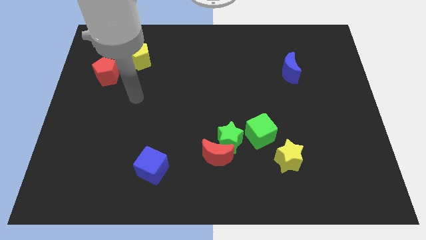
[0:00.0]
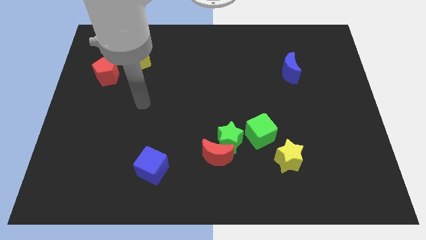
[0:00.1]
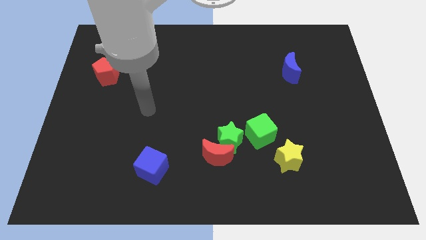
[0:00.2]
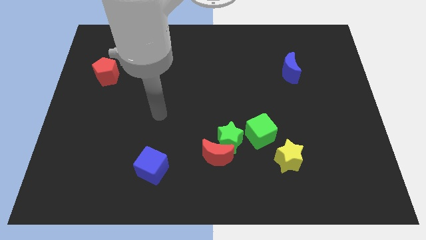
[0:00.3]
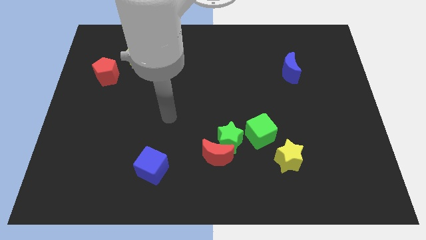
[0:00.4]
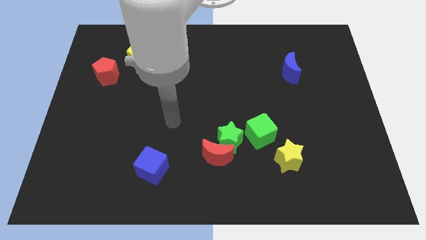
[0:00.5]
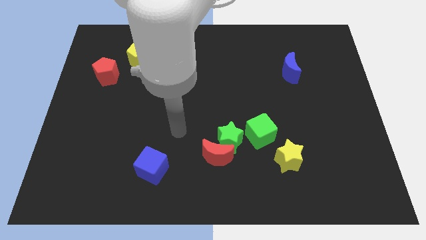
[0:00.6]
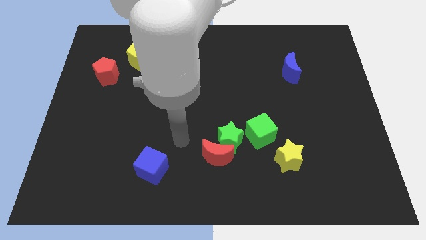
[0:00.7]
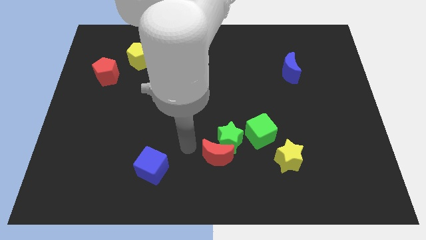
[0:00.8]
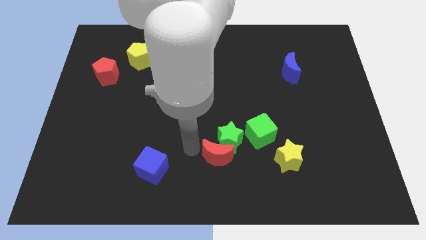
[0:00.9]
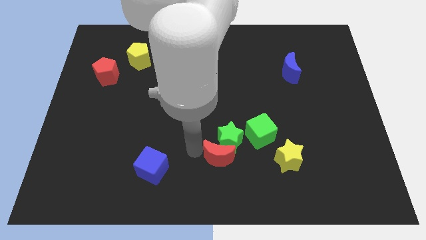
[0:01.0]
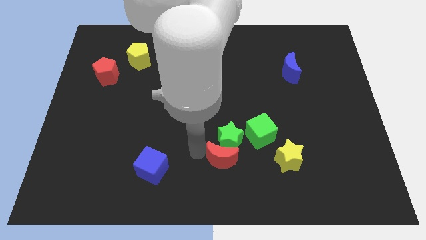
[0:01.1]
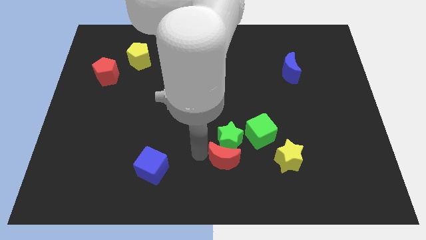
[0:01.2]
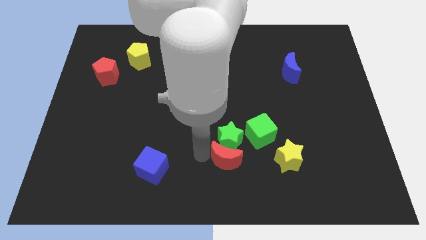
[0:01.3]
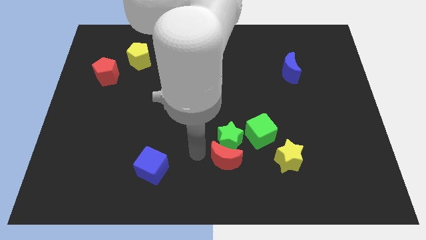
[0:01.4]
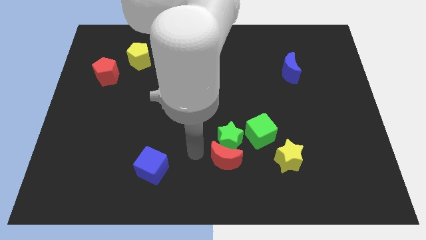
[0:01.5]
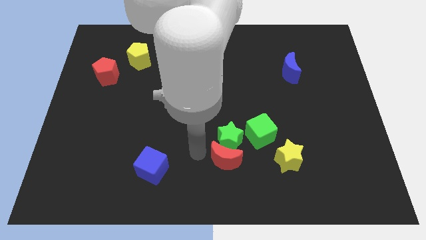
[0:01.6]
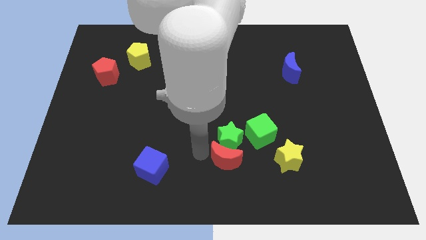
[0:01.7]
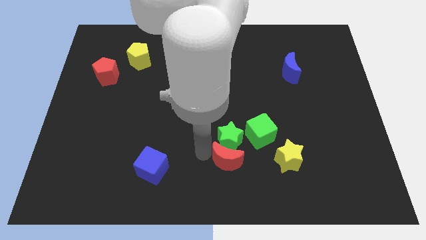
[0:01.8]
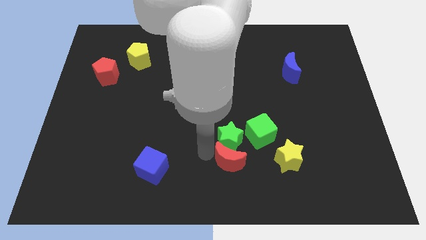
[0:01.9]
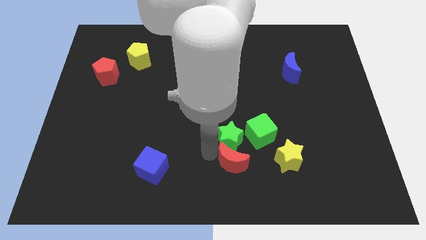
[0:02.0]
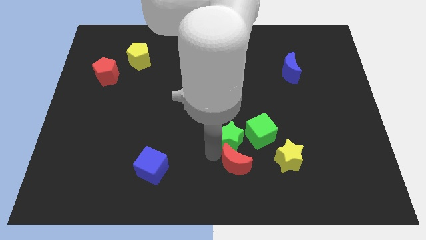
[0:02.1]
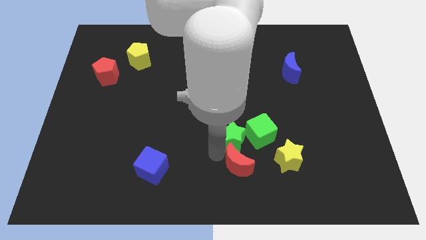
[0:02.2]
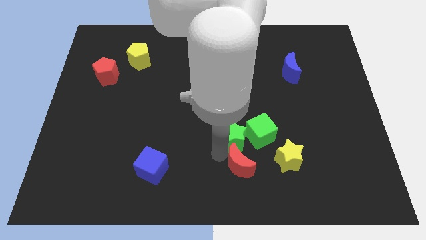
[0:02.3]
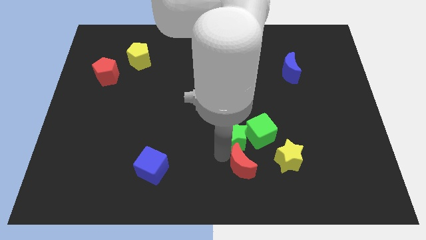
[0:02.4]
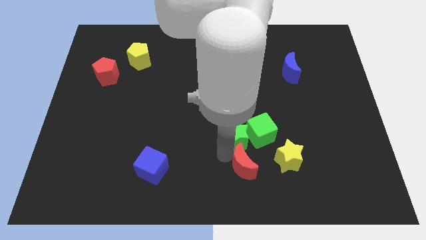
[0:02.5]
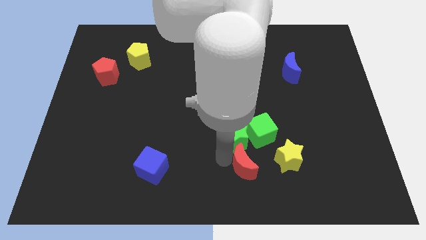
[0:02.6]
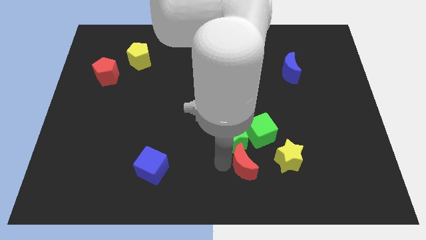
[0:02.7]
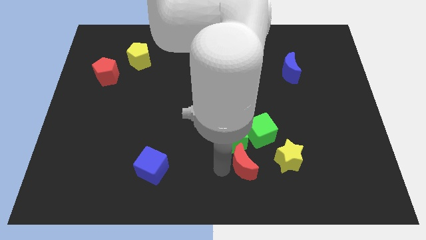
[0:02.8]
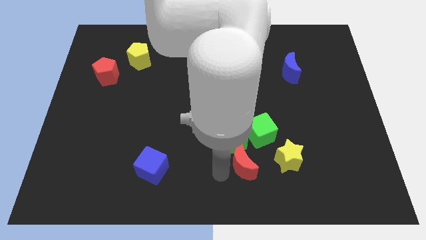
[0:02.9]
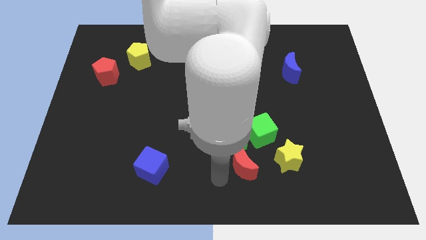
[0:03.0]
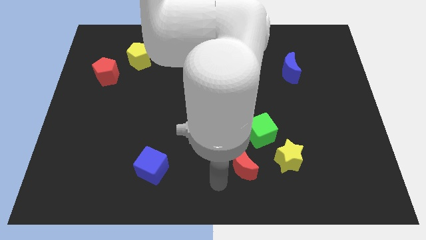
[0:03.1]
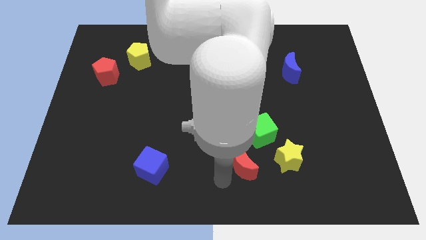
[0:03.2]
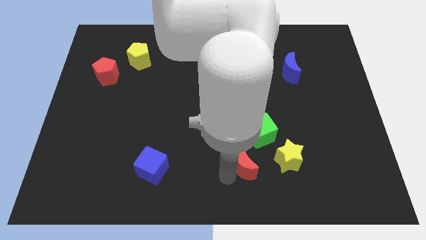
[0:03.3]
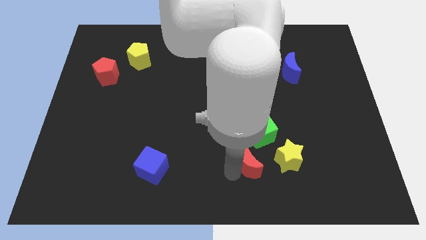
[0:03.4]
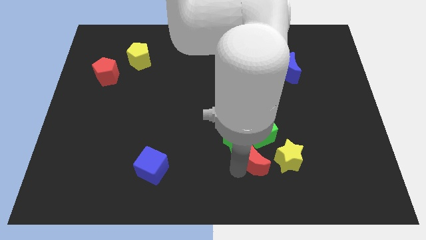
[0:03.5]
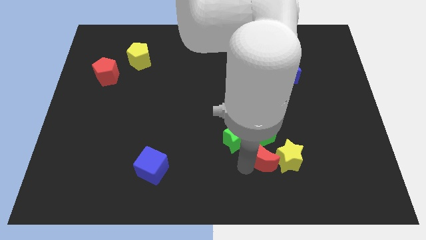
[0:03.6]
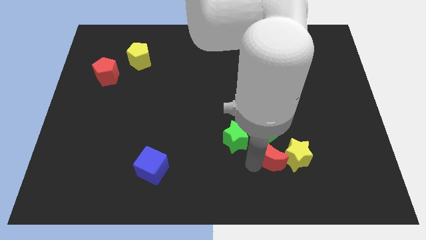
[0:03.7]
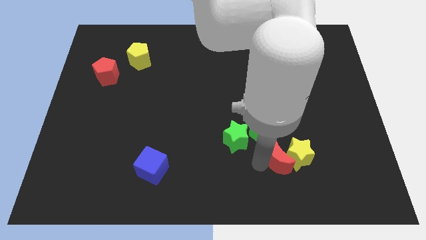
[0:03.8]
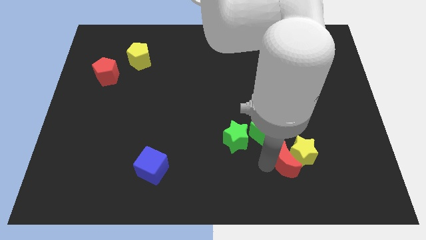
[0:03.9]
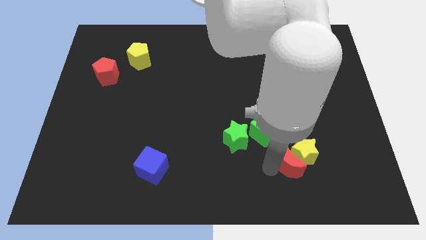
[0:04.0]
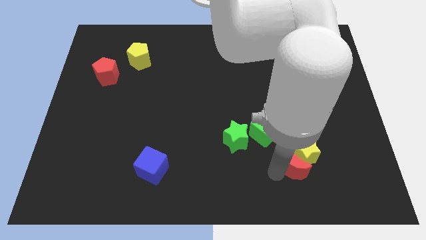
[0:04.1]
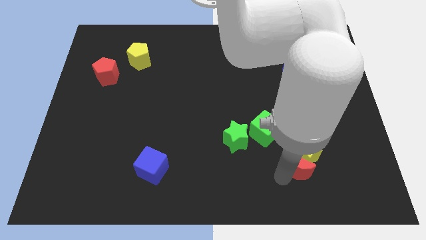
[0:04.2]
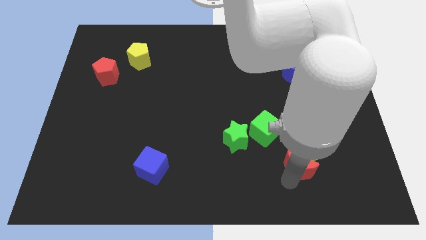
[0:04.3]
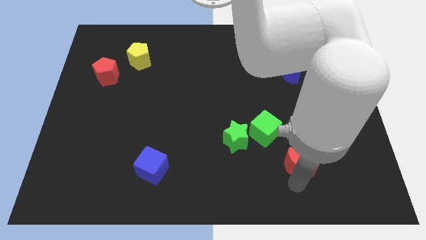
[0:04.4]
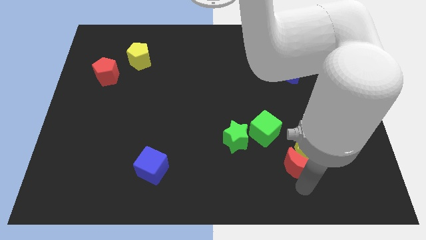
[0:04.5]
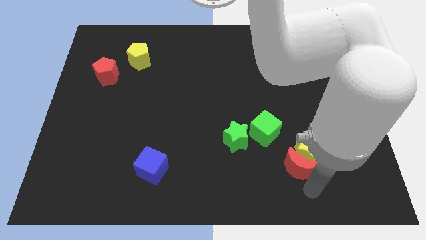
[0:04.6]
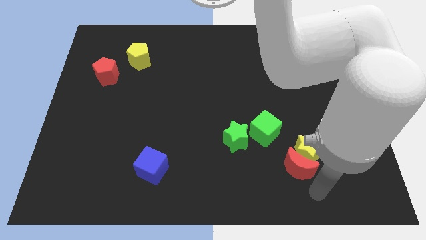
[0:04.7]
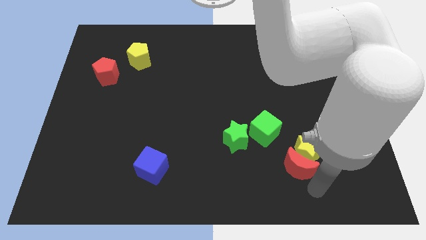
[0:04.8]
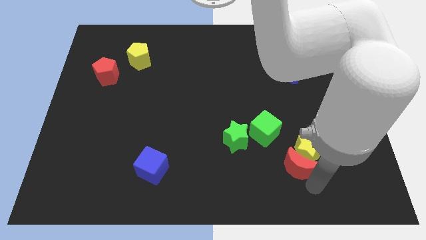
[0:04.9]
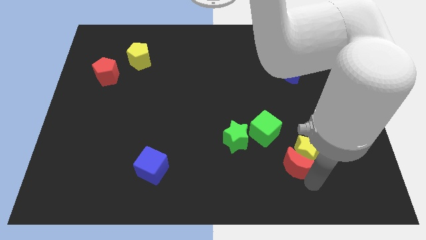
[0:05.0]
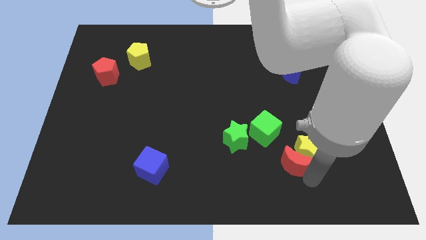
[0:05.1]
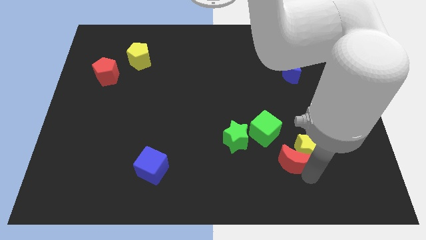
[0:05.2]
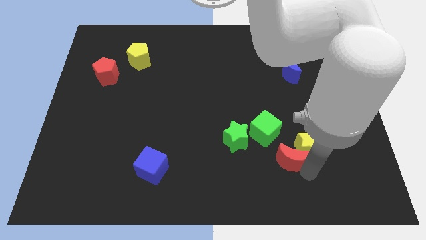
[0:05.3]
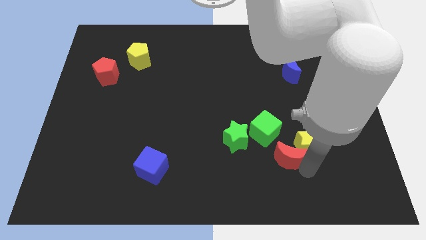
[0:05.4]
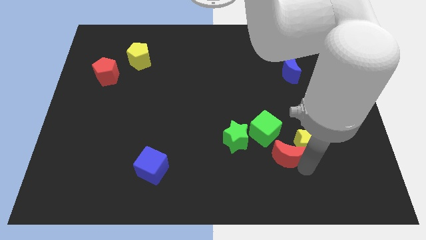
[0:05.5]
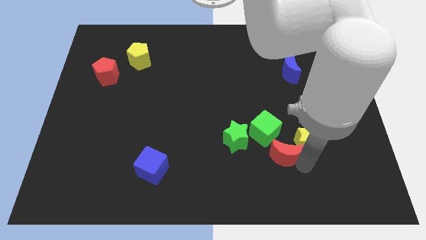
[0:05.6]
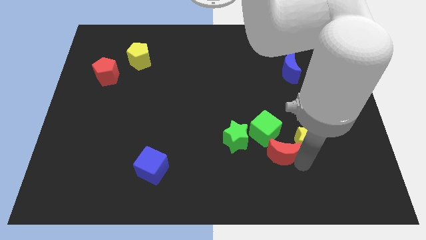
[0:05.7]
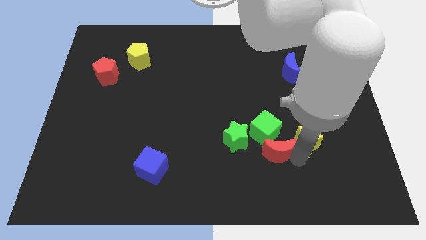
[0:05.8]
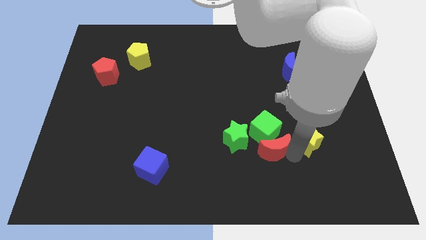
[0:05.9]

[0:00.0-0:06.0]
move the red moon a bit diagonally up and to the right

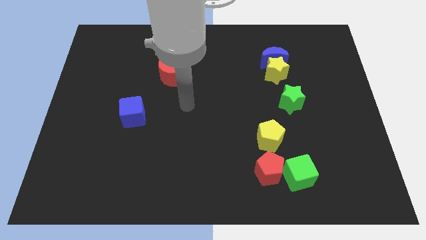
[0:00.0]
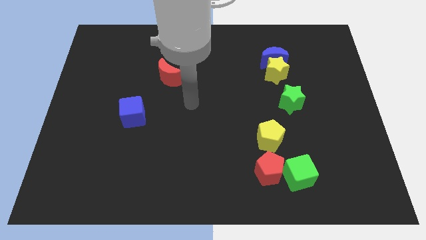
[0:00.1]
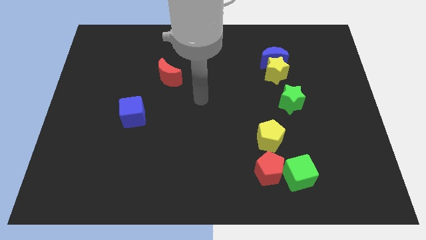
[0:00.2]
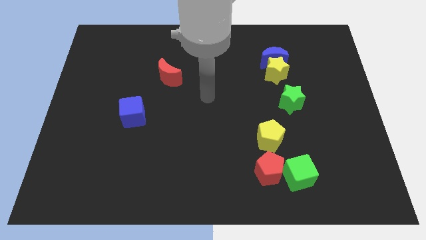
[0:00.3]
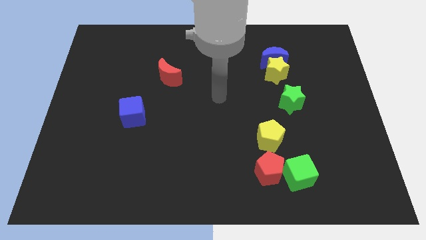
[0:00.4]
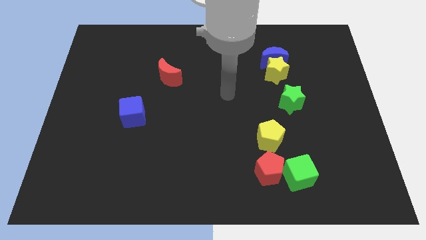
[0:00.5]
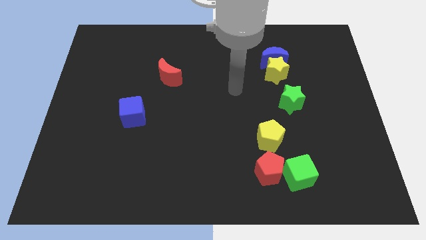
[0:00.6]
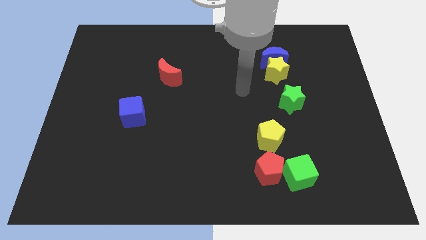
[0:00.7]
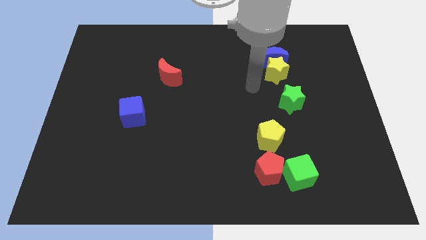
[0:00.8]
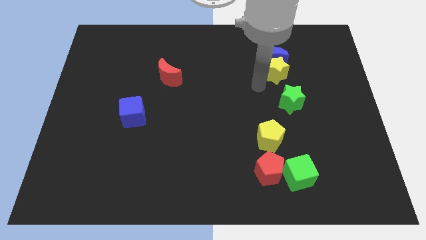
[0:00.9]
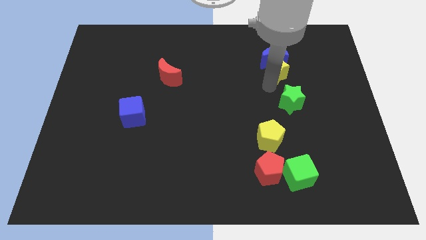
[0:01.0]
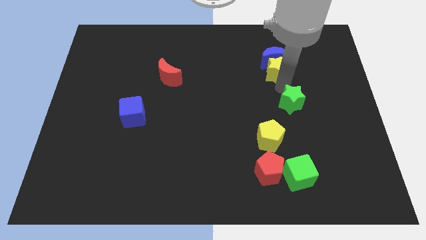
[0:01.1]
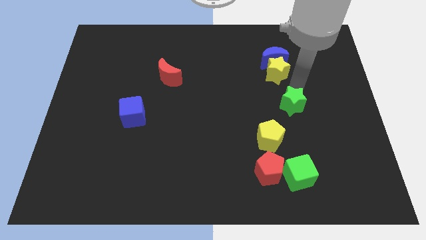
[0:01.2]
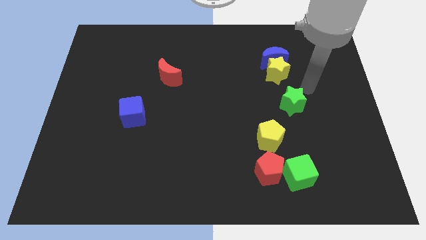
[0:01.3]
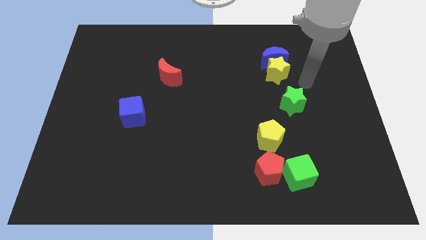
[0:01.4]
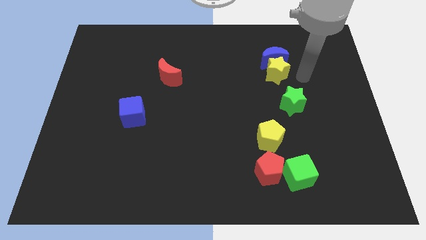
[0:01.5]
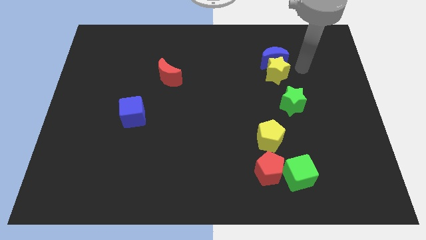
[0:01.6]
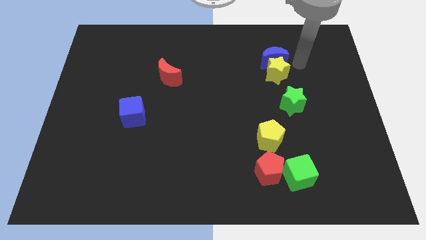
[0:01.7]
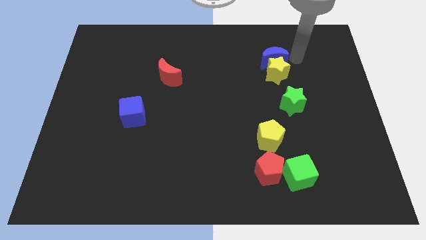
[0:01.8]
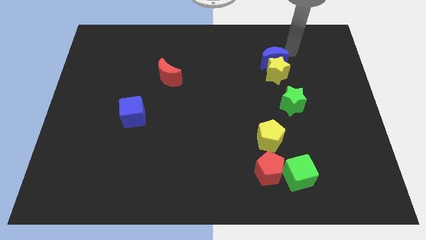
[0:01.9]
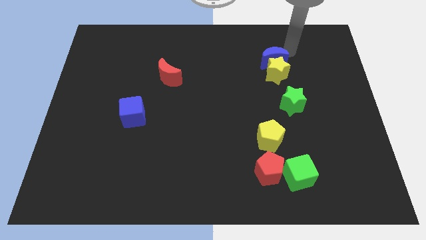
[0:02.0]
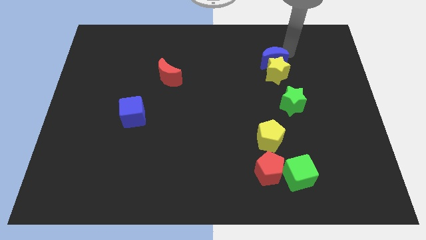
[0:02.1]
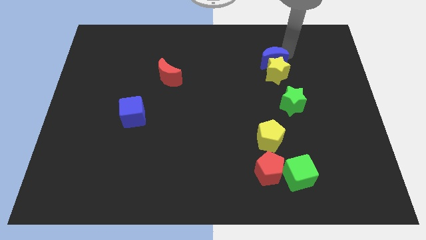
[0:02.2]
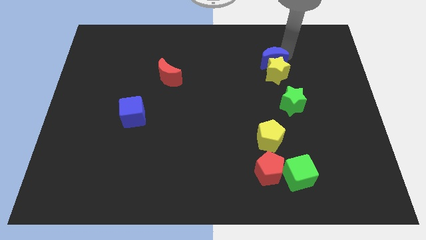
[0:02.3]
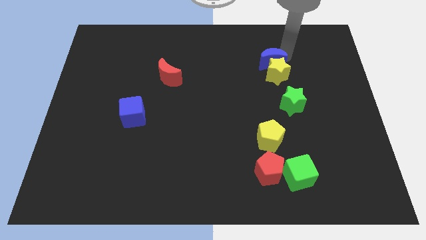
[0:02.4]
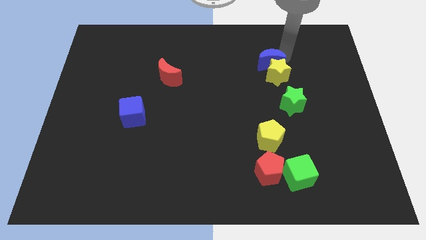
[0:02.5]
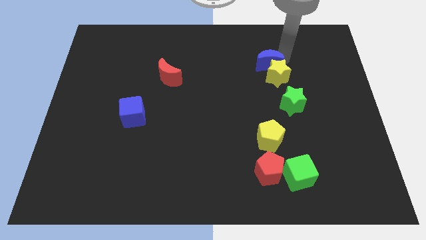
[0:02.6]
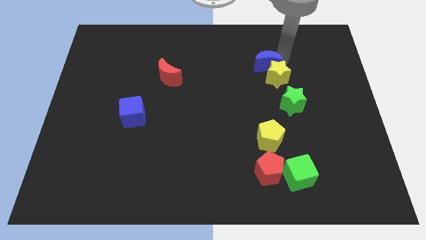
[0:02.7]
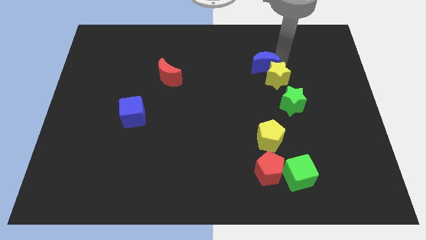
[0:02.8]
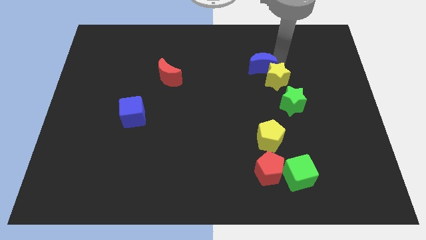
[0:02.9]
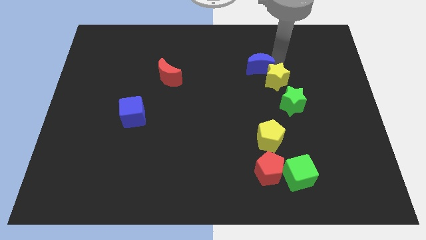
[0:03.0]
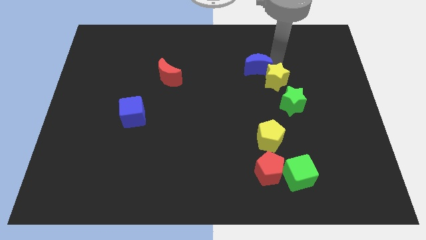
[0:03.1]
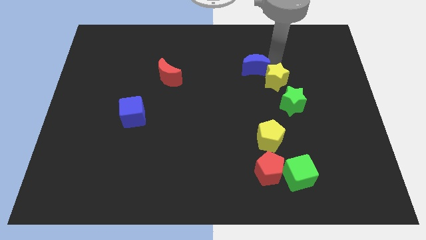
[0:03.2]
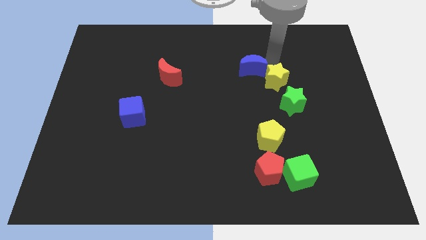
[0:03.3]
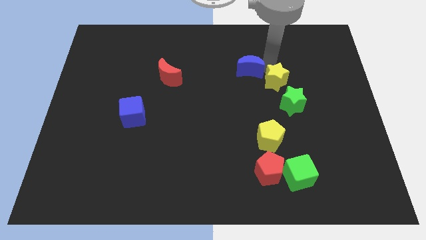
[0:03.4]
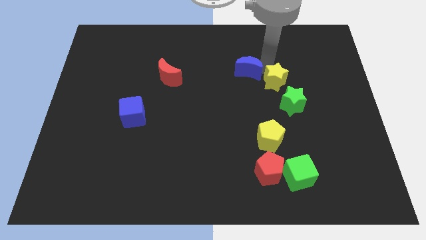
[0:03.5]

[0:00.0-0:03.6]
slightly move the blue moon diagonally downwards and to the left
